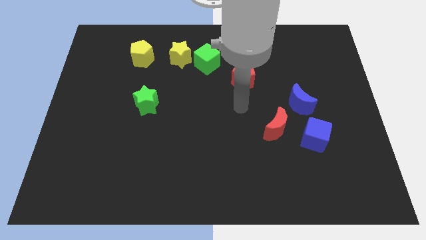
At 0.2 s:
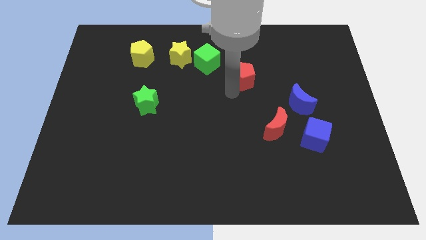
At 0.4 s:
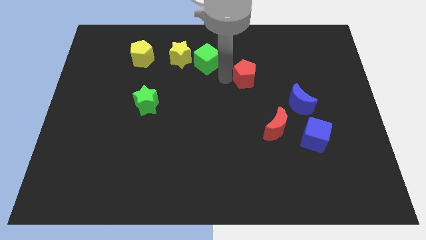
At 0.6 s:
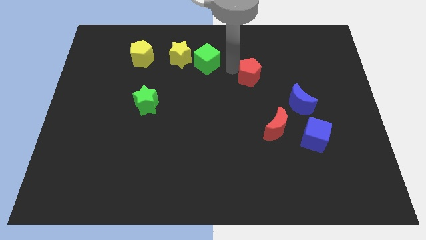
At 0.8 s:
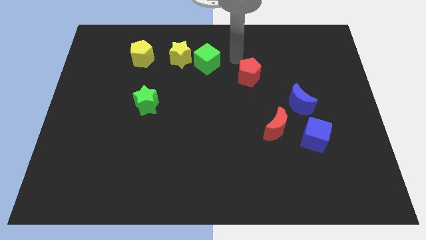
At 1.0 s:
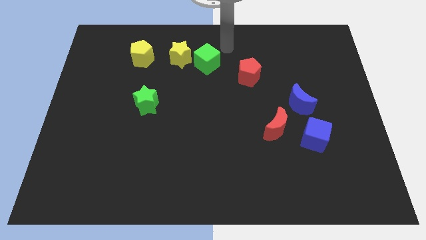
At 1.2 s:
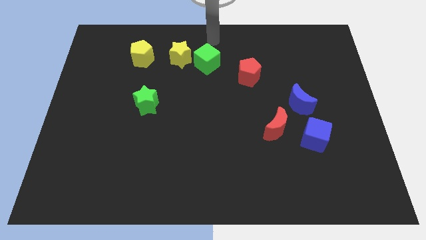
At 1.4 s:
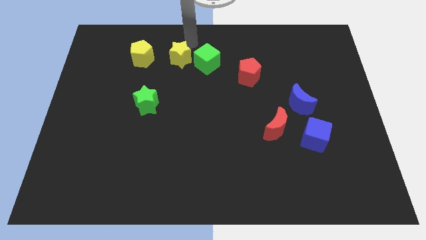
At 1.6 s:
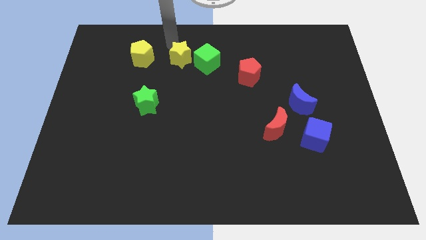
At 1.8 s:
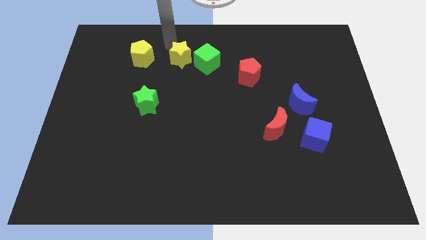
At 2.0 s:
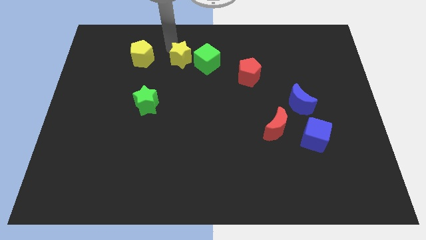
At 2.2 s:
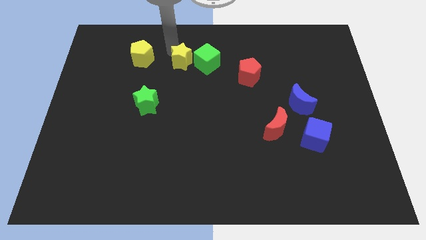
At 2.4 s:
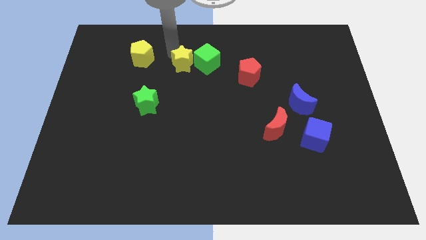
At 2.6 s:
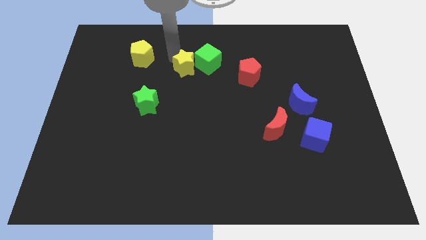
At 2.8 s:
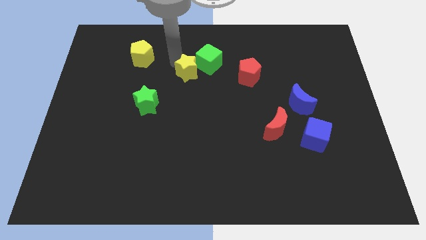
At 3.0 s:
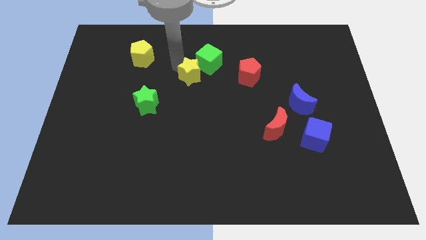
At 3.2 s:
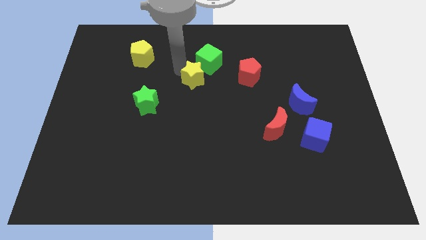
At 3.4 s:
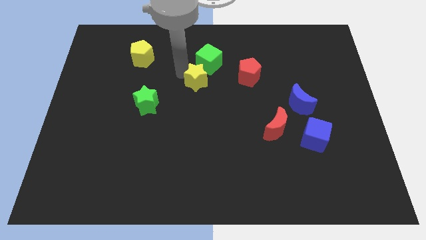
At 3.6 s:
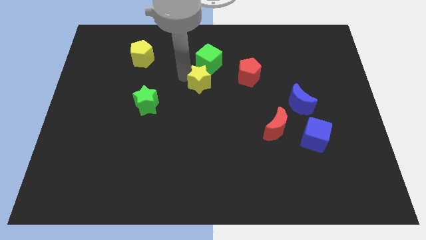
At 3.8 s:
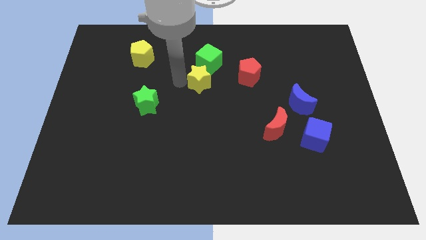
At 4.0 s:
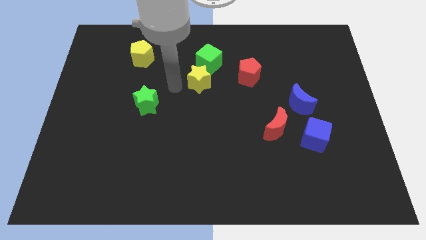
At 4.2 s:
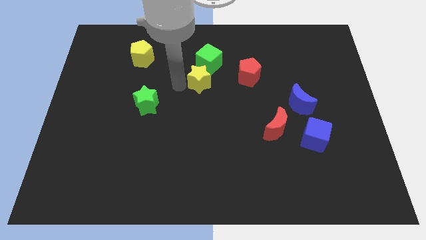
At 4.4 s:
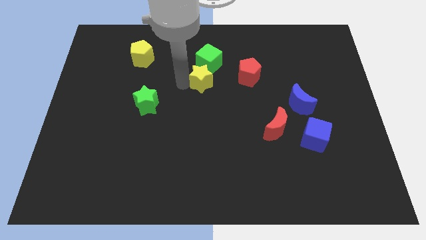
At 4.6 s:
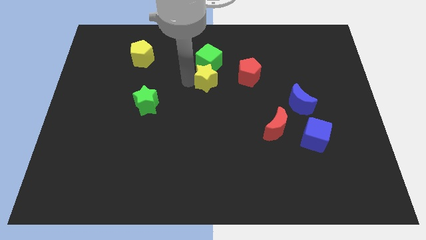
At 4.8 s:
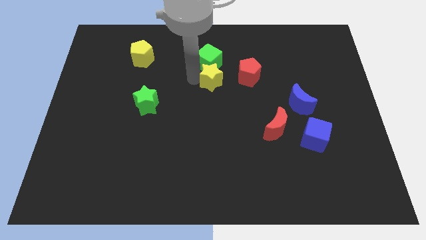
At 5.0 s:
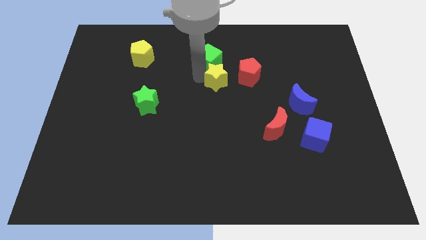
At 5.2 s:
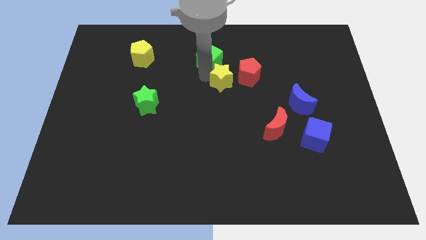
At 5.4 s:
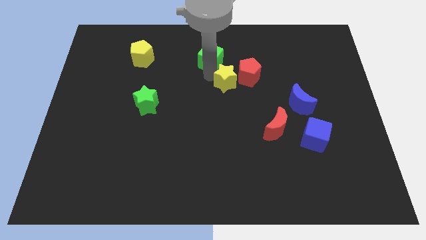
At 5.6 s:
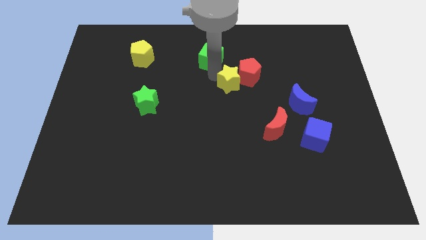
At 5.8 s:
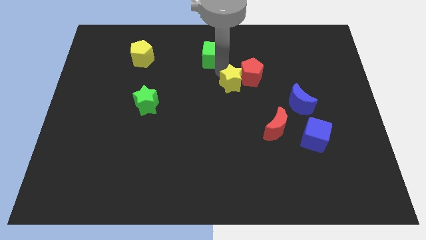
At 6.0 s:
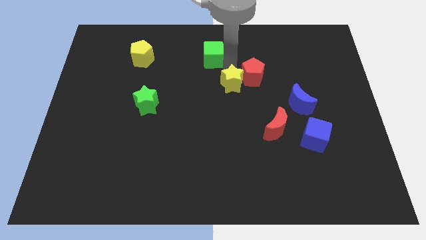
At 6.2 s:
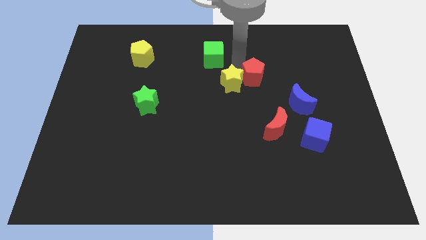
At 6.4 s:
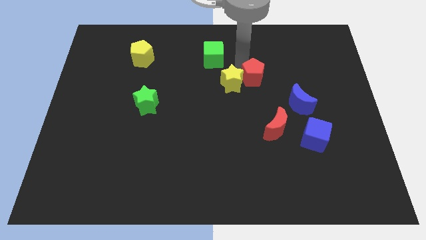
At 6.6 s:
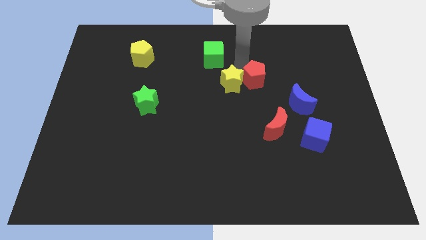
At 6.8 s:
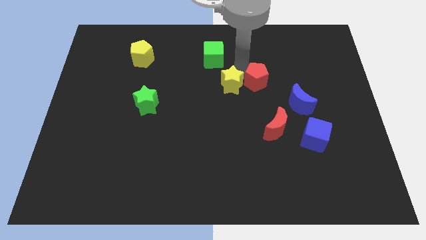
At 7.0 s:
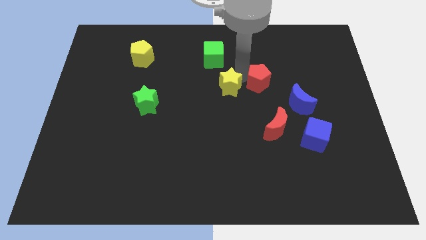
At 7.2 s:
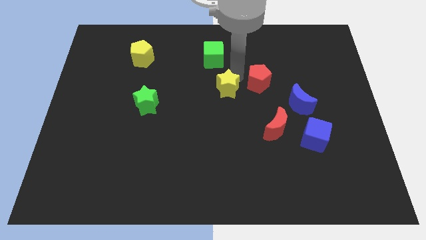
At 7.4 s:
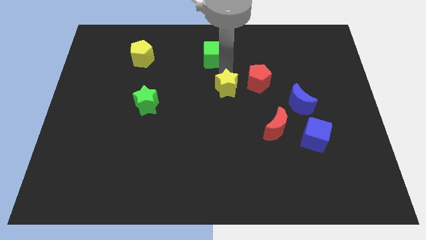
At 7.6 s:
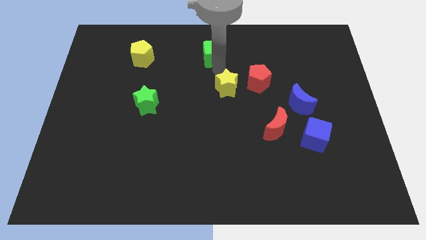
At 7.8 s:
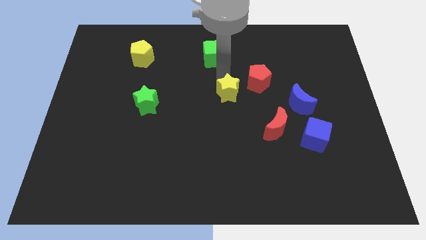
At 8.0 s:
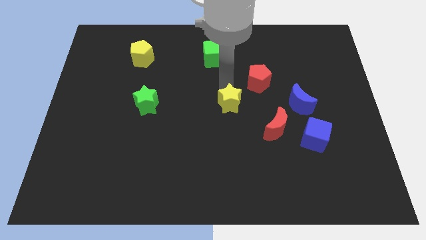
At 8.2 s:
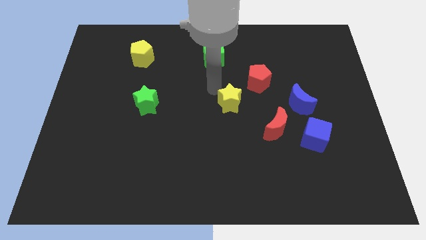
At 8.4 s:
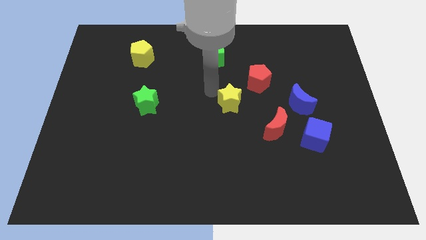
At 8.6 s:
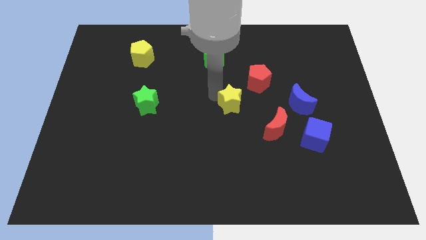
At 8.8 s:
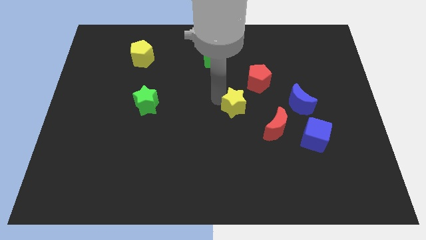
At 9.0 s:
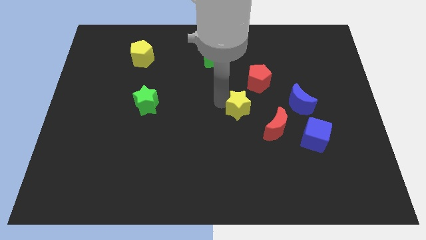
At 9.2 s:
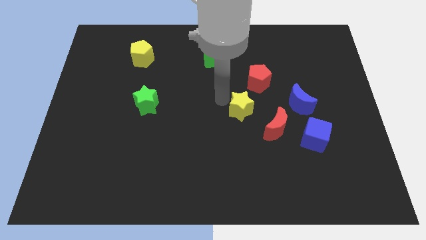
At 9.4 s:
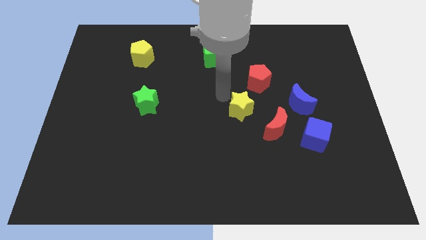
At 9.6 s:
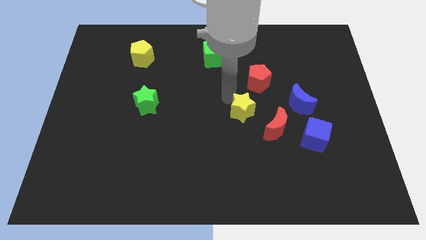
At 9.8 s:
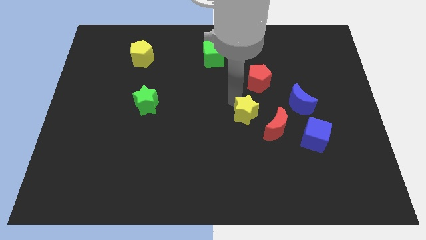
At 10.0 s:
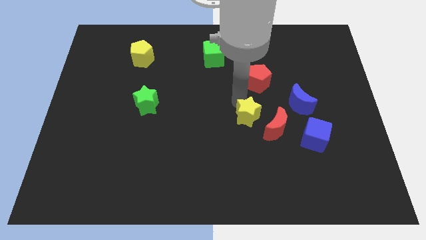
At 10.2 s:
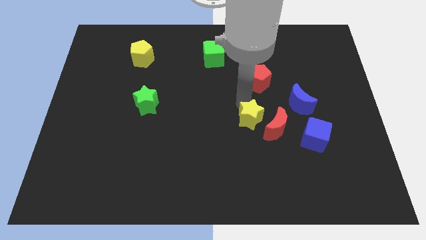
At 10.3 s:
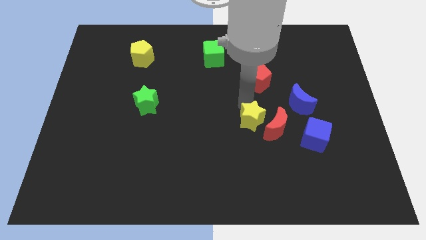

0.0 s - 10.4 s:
push the yellow star towards the red moon

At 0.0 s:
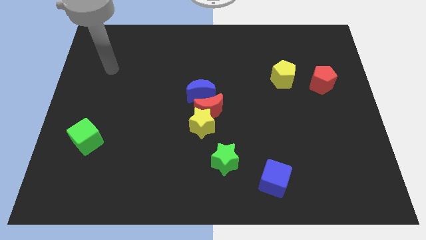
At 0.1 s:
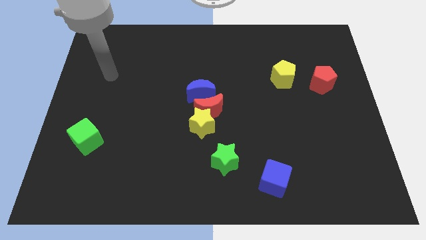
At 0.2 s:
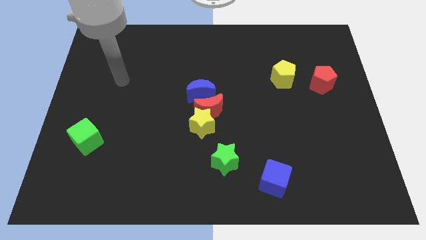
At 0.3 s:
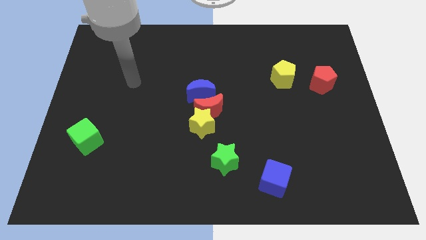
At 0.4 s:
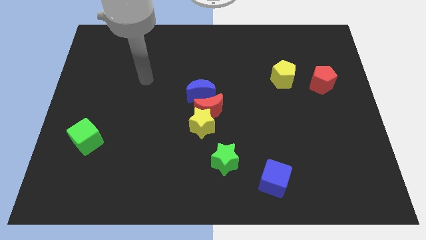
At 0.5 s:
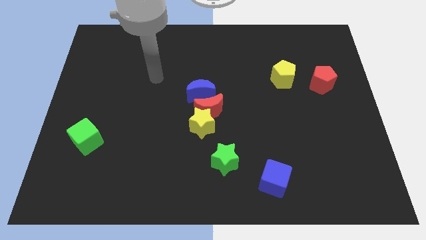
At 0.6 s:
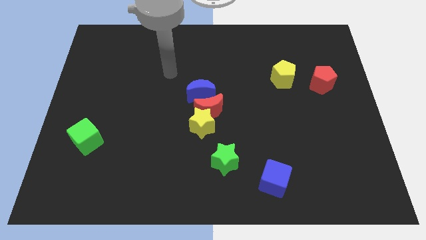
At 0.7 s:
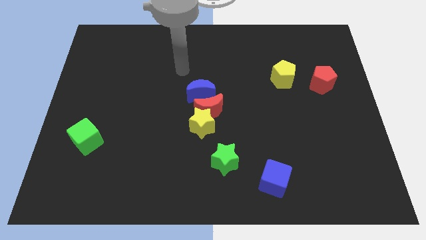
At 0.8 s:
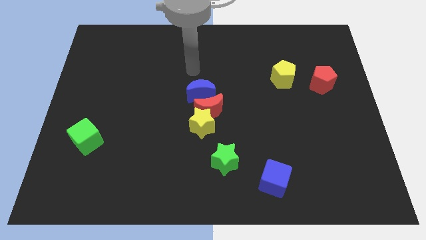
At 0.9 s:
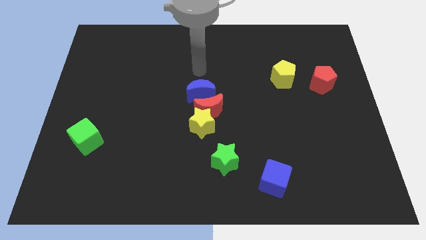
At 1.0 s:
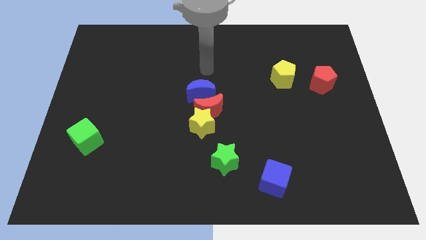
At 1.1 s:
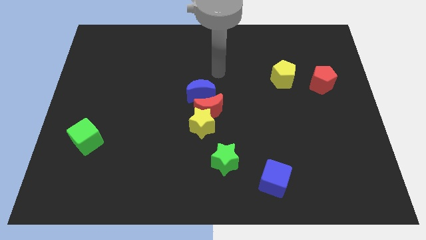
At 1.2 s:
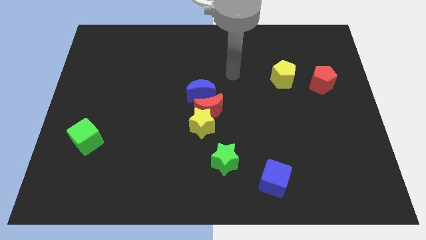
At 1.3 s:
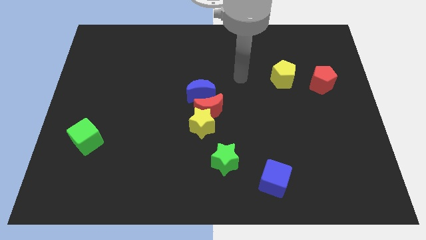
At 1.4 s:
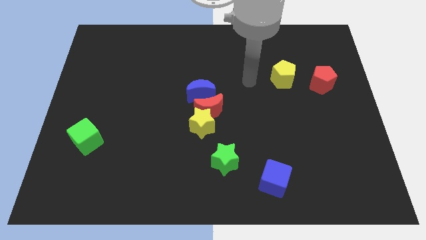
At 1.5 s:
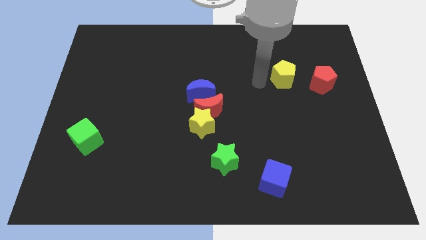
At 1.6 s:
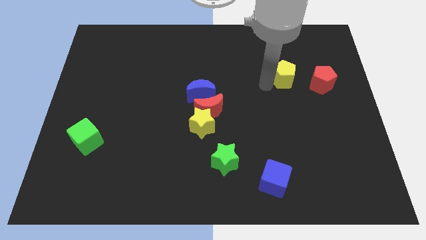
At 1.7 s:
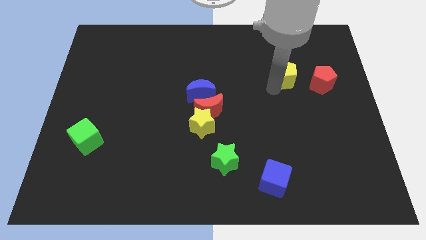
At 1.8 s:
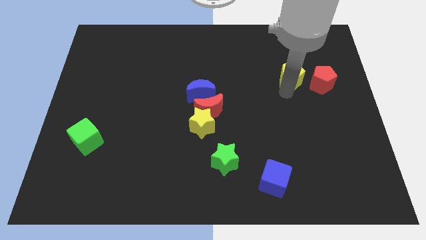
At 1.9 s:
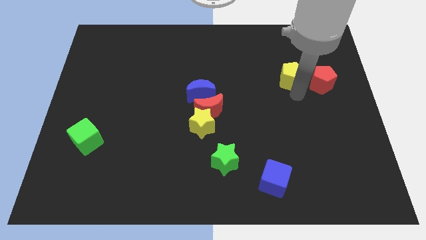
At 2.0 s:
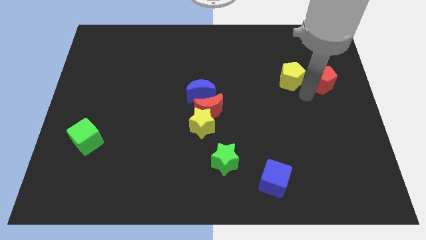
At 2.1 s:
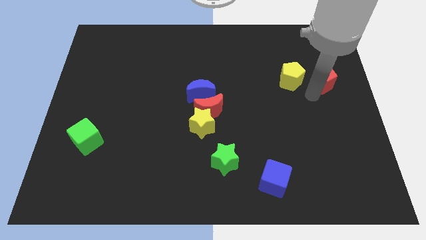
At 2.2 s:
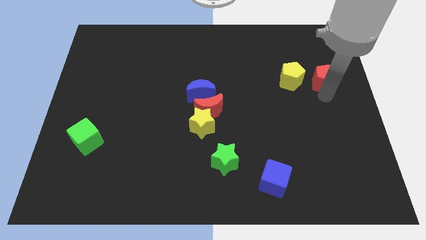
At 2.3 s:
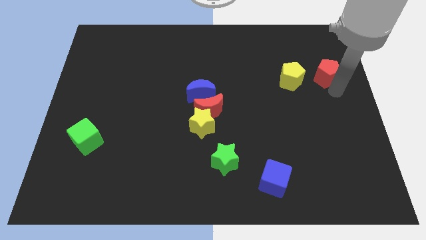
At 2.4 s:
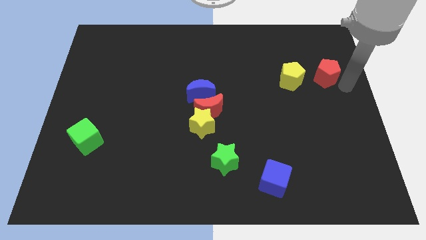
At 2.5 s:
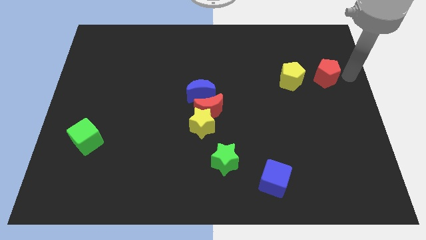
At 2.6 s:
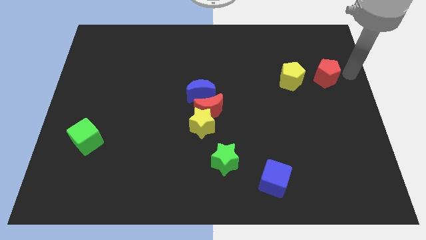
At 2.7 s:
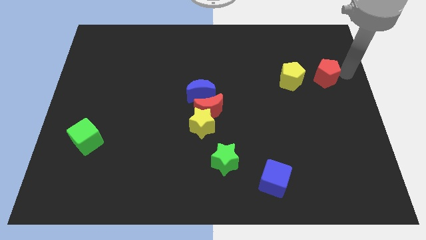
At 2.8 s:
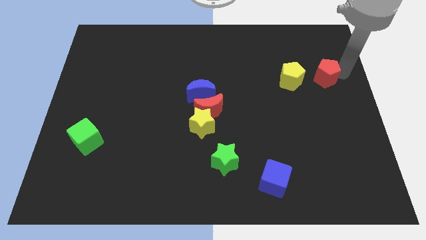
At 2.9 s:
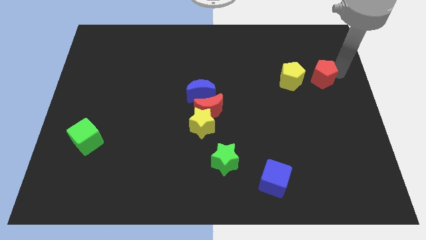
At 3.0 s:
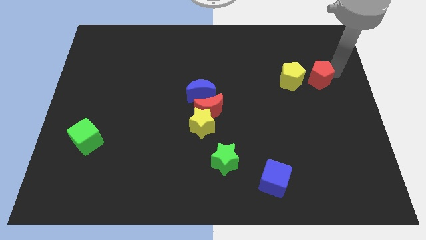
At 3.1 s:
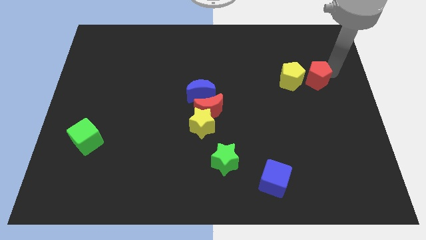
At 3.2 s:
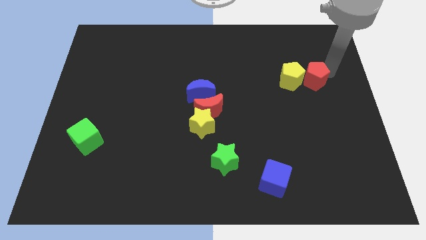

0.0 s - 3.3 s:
move the red pentagon next to the yellow pentagon
